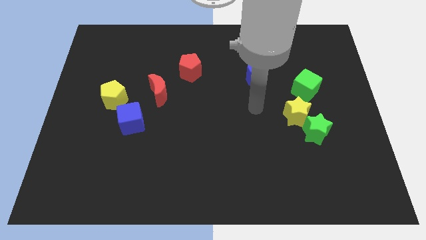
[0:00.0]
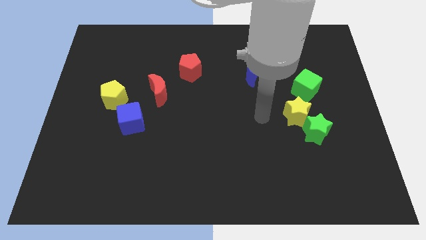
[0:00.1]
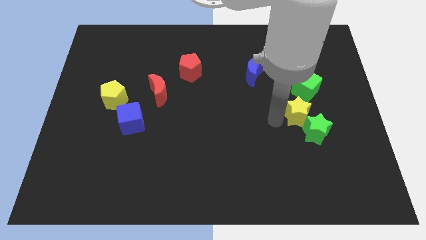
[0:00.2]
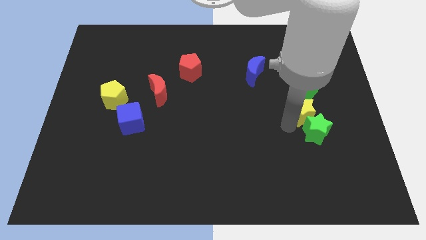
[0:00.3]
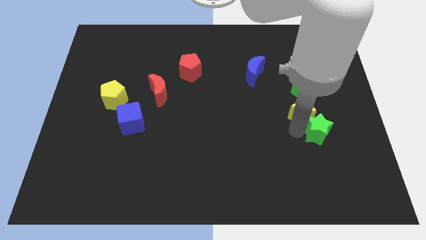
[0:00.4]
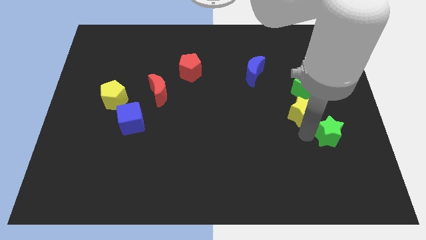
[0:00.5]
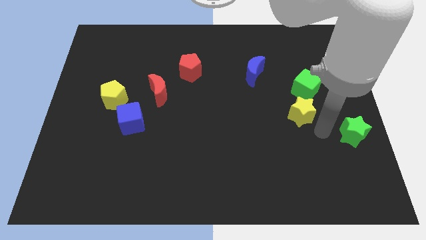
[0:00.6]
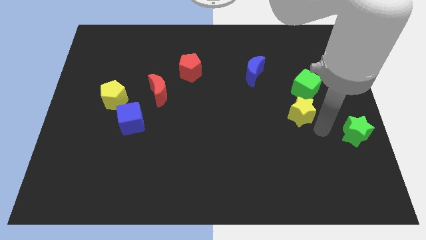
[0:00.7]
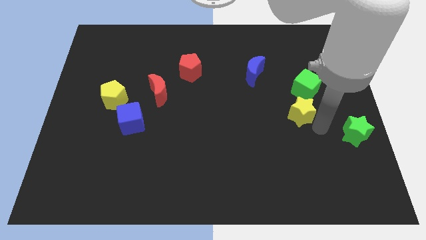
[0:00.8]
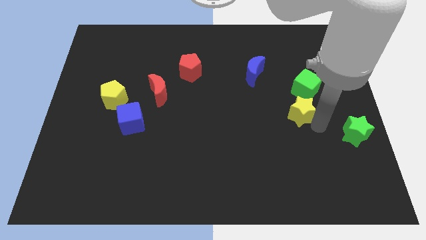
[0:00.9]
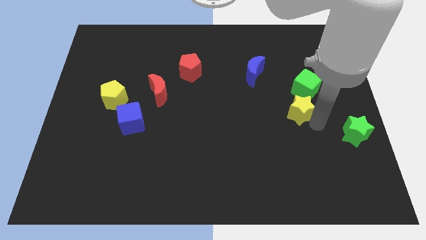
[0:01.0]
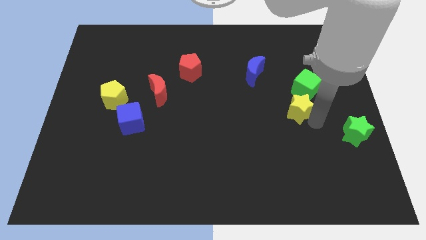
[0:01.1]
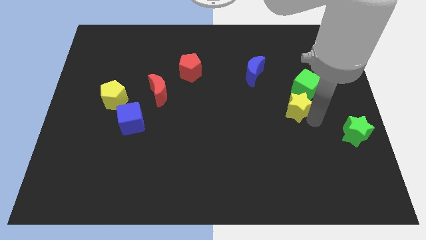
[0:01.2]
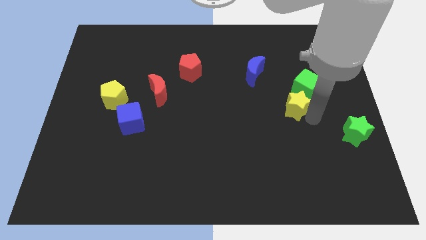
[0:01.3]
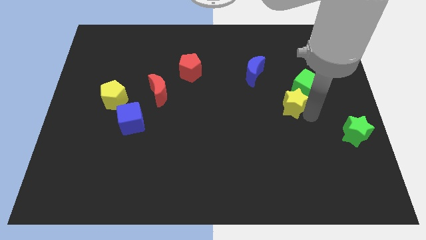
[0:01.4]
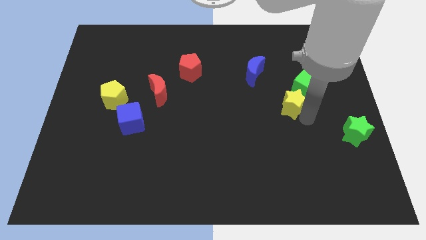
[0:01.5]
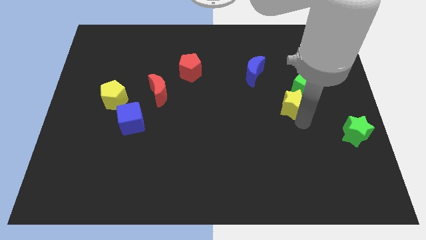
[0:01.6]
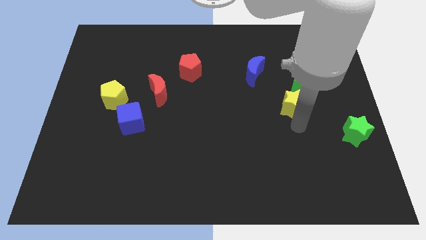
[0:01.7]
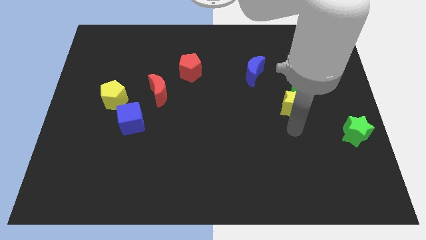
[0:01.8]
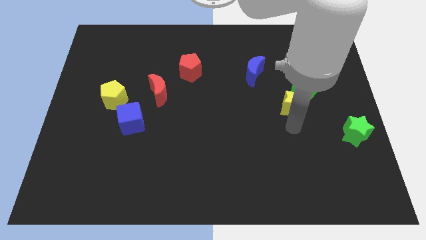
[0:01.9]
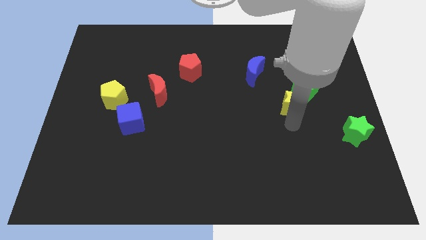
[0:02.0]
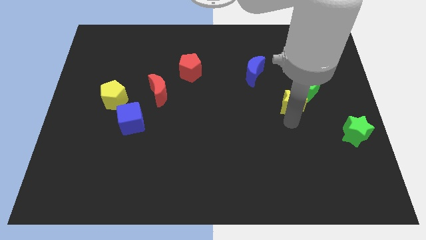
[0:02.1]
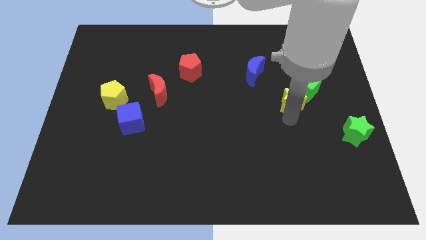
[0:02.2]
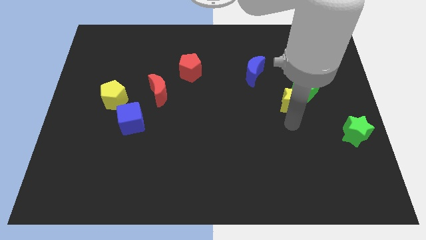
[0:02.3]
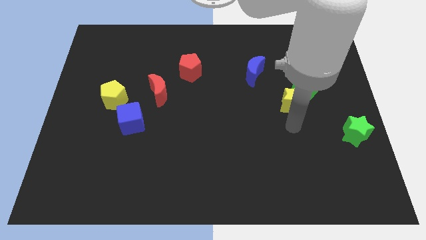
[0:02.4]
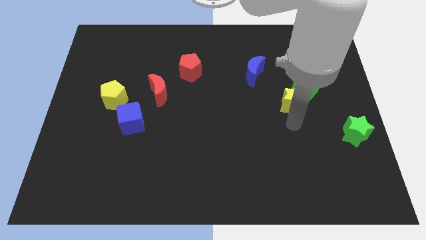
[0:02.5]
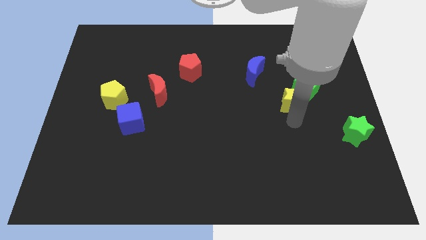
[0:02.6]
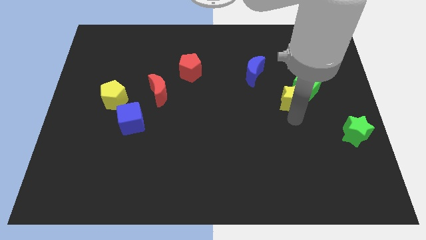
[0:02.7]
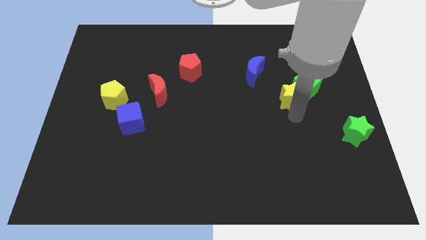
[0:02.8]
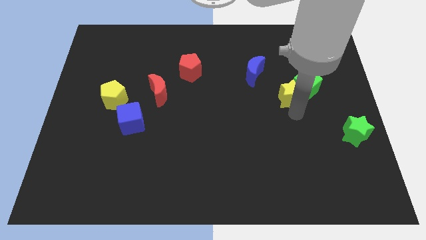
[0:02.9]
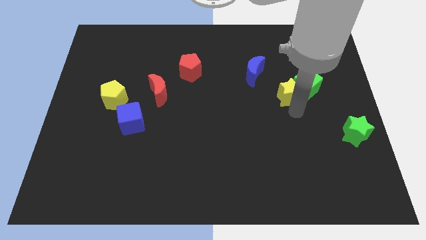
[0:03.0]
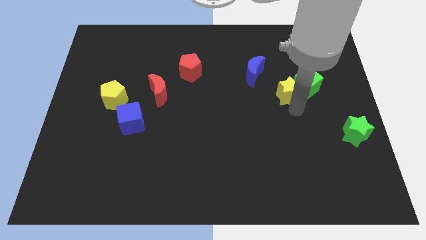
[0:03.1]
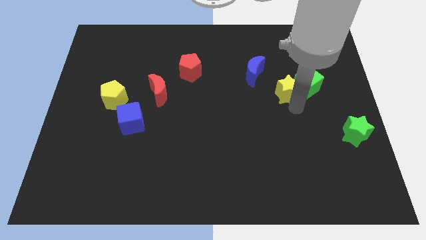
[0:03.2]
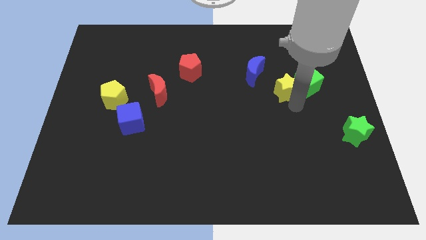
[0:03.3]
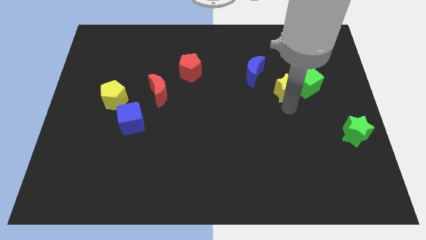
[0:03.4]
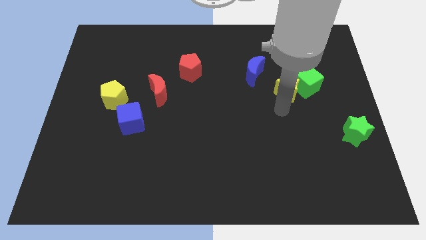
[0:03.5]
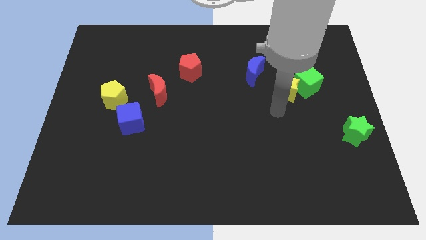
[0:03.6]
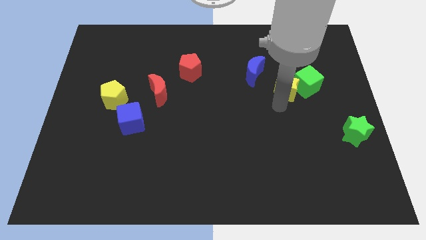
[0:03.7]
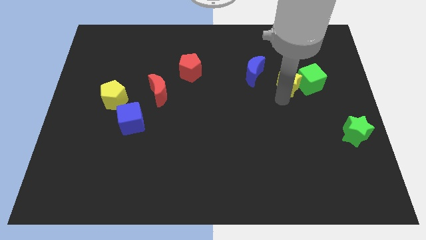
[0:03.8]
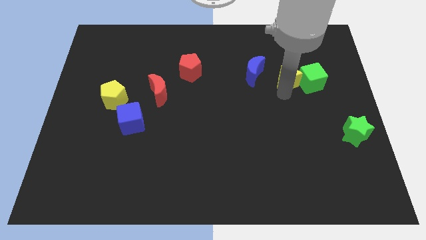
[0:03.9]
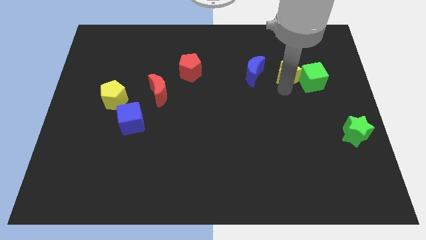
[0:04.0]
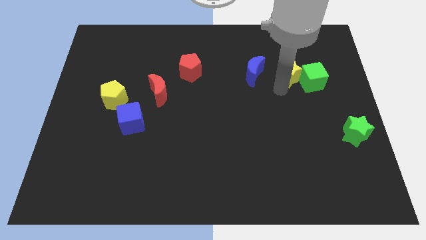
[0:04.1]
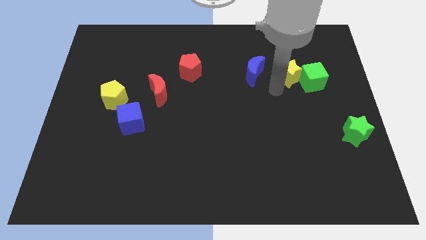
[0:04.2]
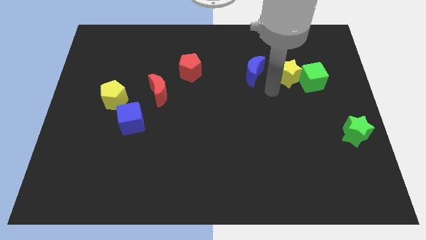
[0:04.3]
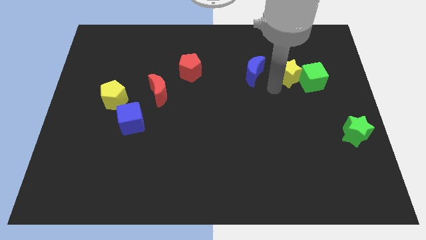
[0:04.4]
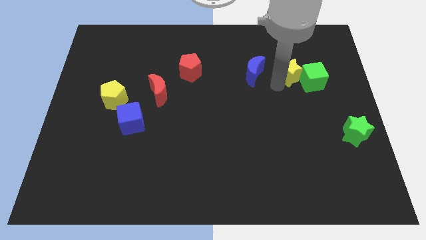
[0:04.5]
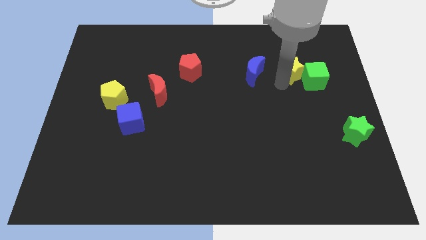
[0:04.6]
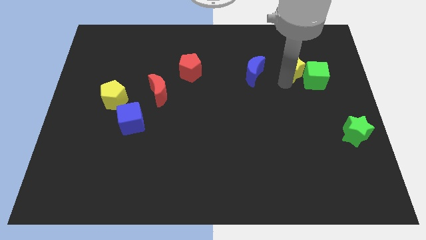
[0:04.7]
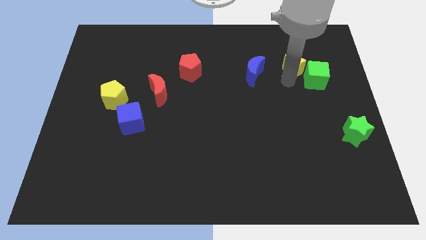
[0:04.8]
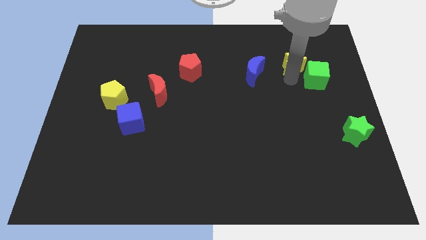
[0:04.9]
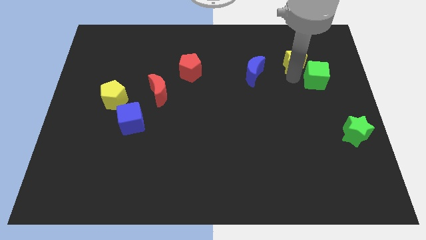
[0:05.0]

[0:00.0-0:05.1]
slide the yellow star above the green cube

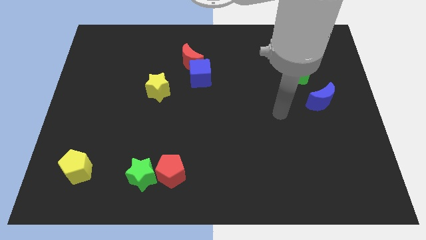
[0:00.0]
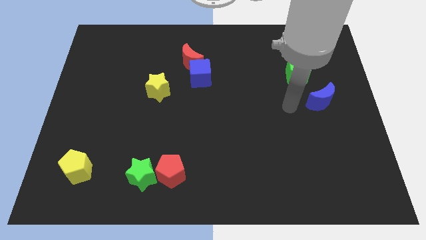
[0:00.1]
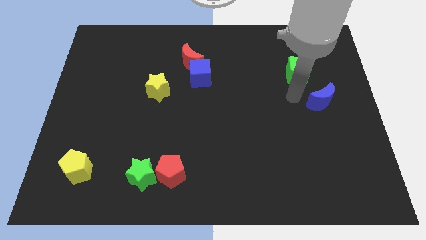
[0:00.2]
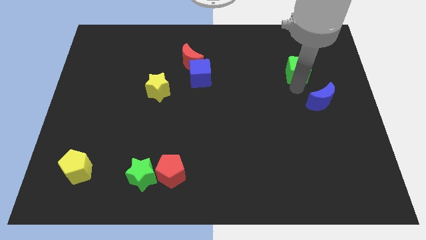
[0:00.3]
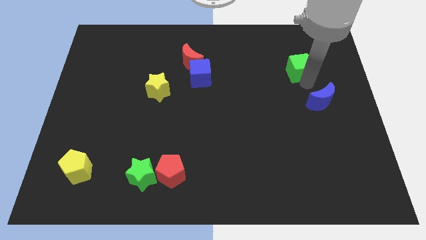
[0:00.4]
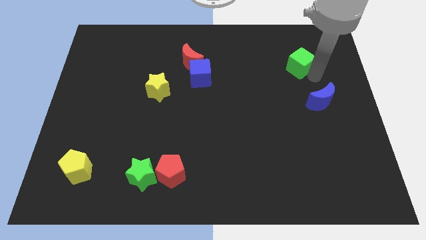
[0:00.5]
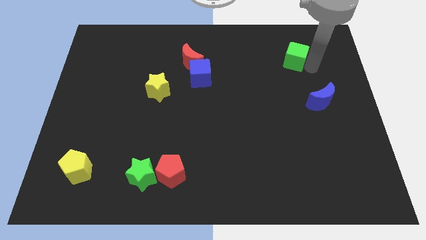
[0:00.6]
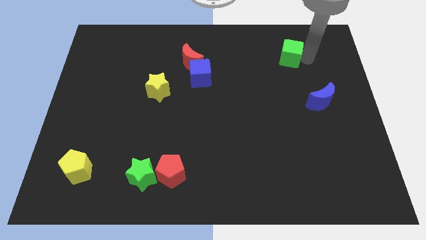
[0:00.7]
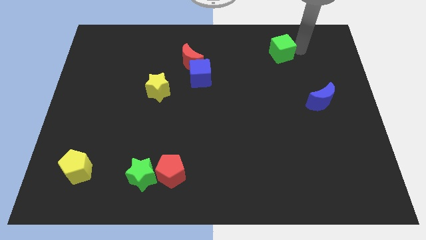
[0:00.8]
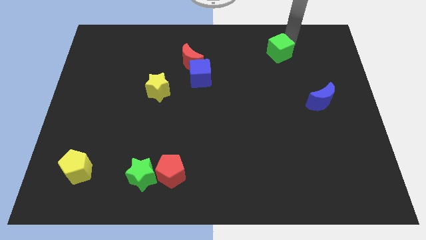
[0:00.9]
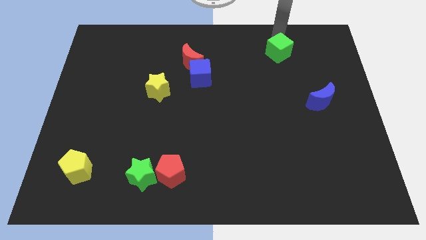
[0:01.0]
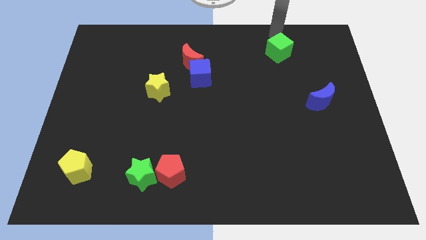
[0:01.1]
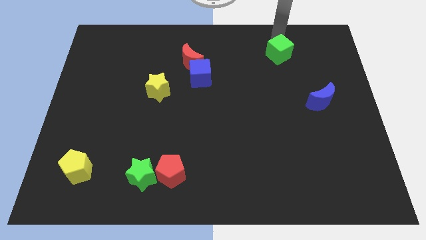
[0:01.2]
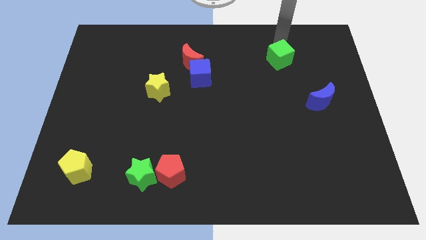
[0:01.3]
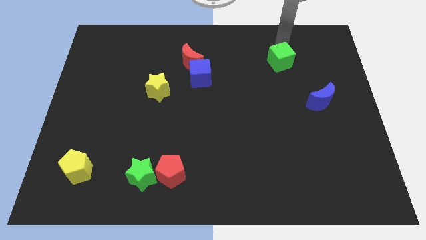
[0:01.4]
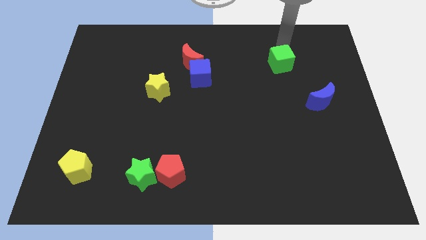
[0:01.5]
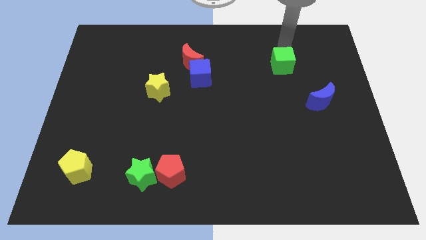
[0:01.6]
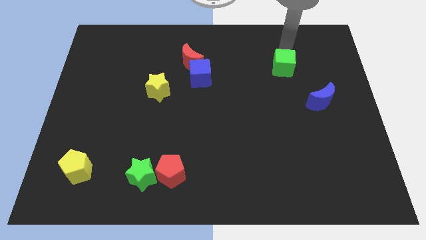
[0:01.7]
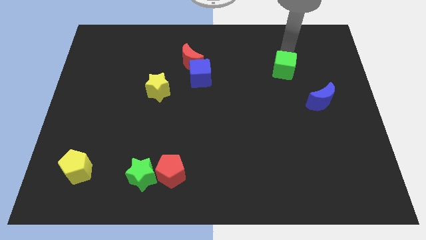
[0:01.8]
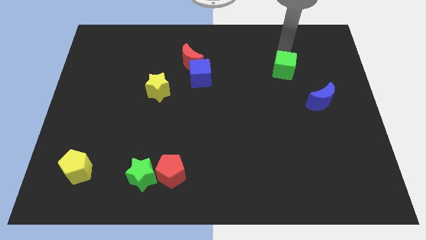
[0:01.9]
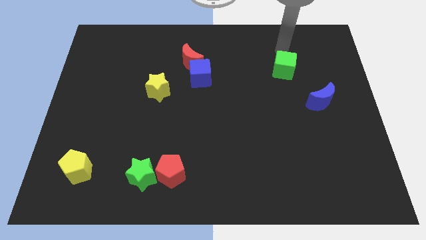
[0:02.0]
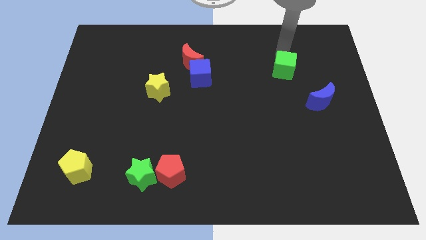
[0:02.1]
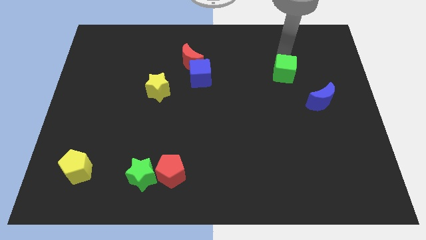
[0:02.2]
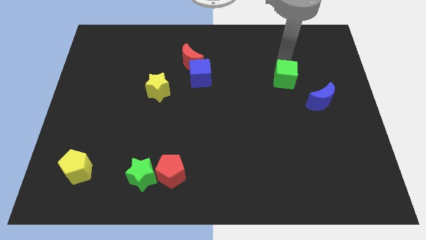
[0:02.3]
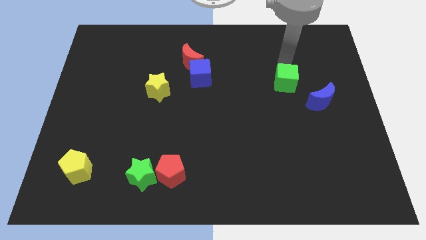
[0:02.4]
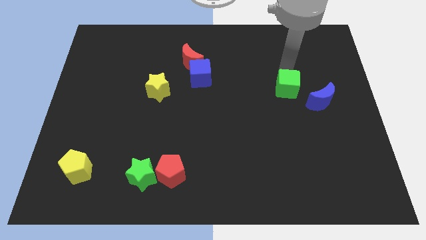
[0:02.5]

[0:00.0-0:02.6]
push the green cube left of the blue moon

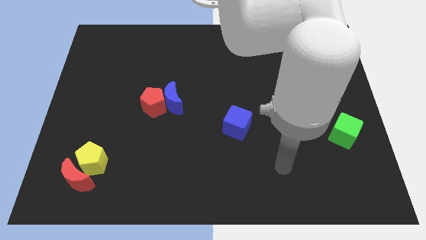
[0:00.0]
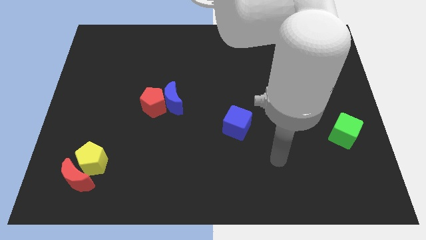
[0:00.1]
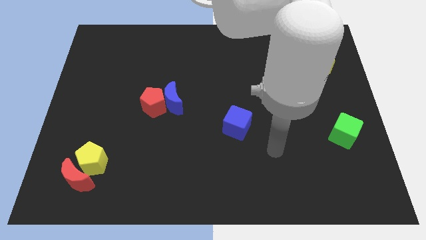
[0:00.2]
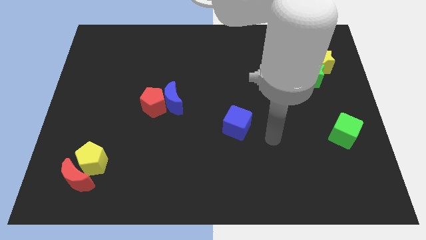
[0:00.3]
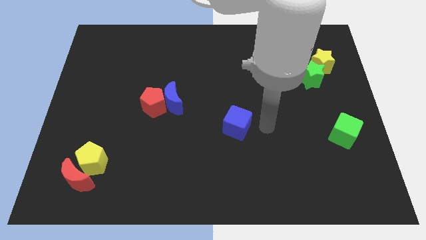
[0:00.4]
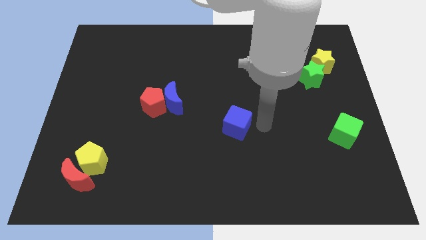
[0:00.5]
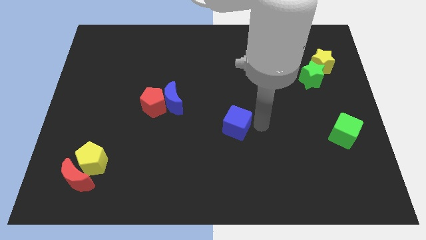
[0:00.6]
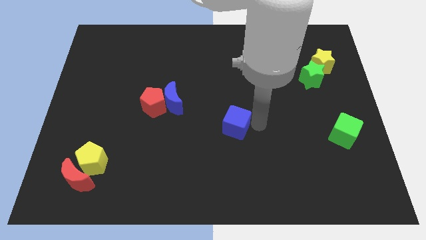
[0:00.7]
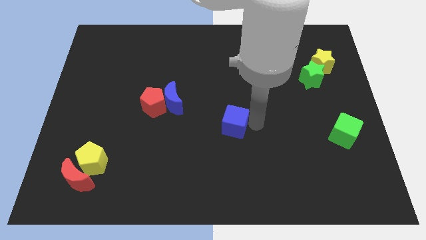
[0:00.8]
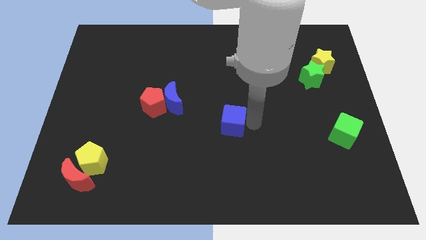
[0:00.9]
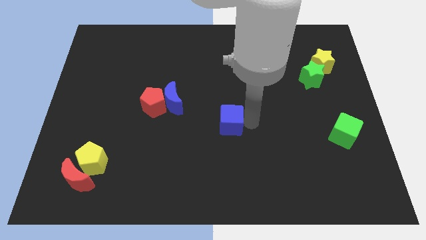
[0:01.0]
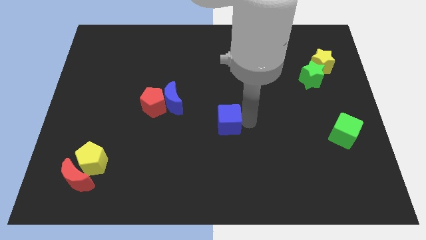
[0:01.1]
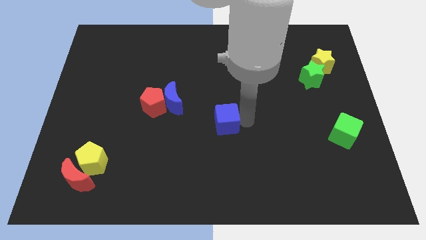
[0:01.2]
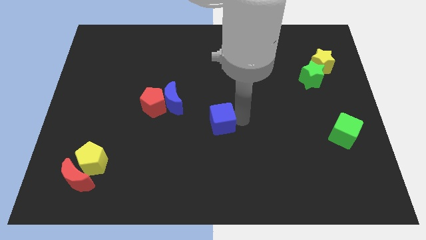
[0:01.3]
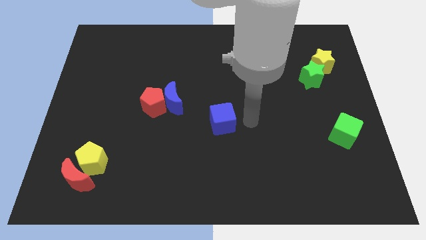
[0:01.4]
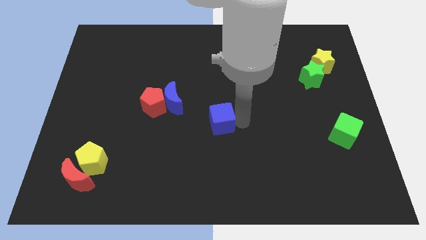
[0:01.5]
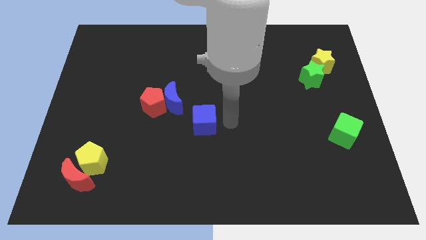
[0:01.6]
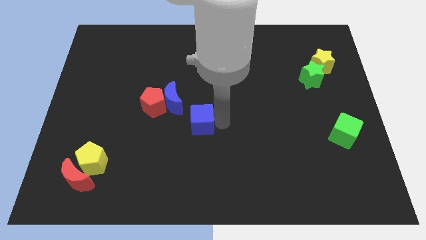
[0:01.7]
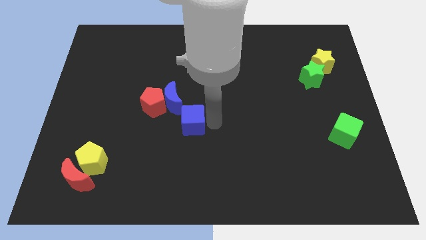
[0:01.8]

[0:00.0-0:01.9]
move the blue cube diagonally down and to the right of the red pentagon
